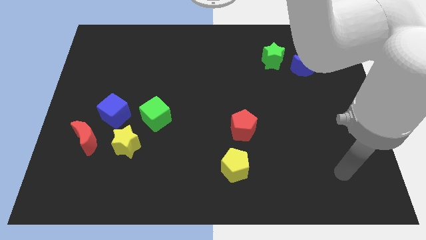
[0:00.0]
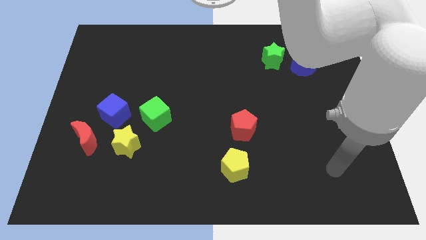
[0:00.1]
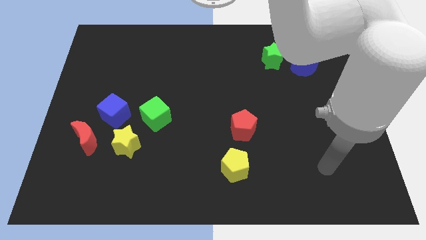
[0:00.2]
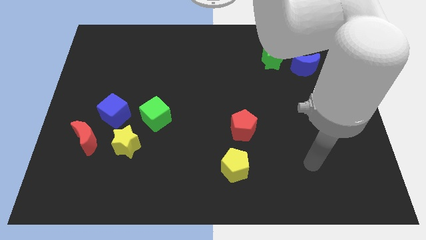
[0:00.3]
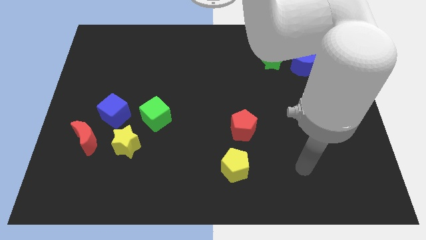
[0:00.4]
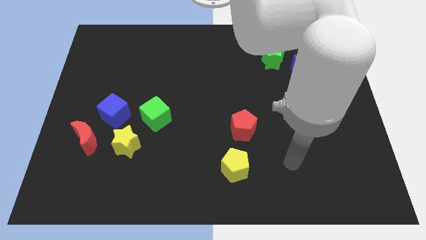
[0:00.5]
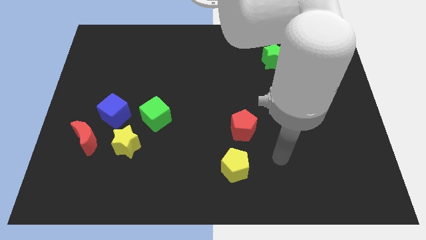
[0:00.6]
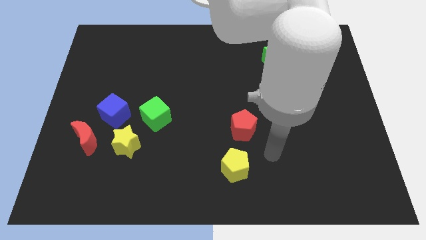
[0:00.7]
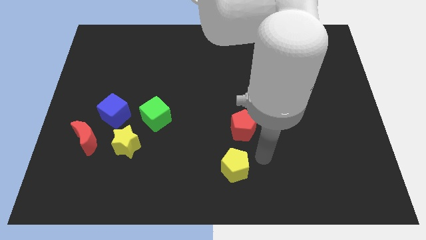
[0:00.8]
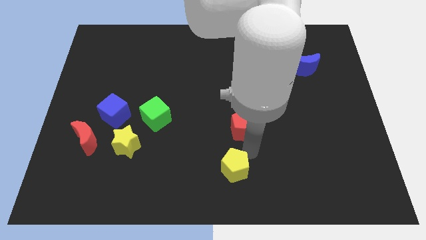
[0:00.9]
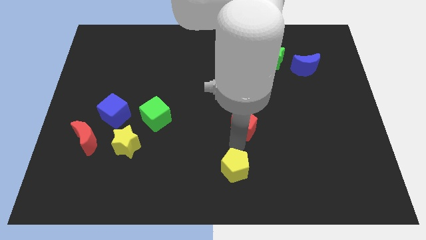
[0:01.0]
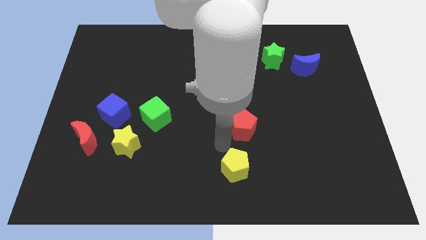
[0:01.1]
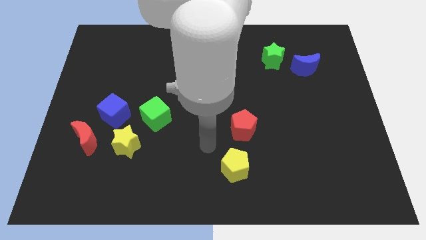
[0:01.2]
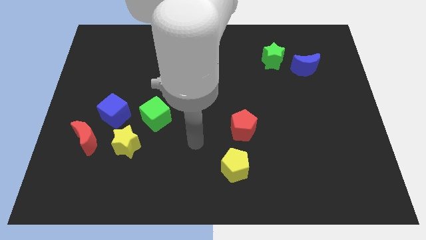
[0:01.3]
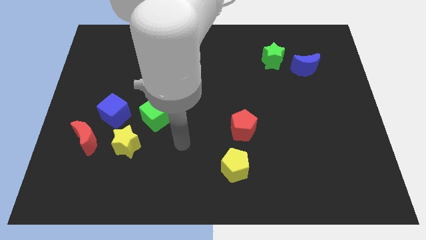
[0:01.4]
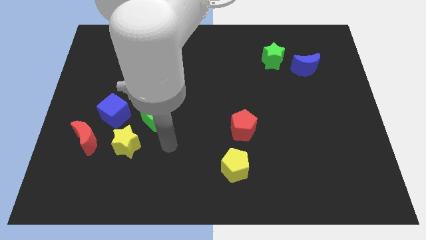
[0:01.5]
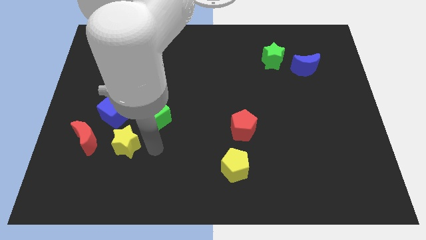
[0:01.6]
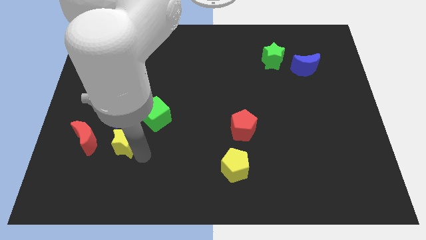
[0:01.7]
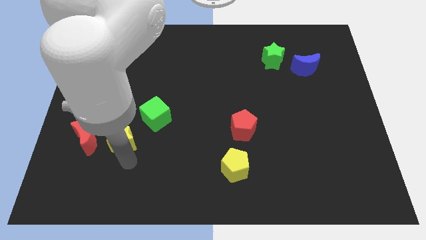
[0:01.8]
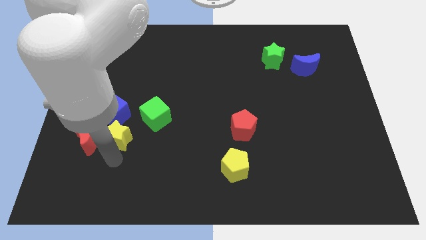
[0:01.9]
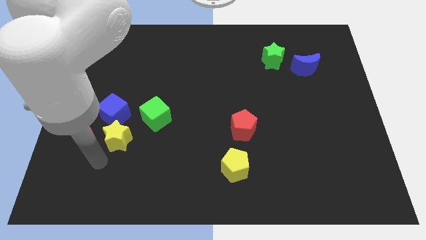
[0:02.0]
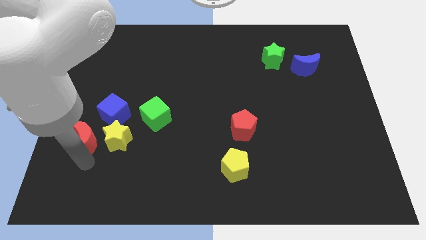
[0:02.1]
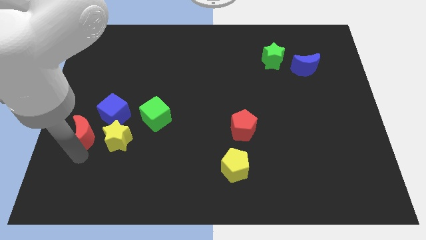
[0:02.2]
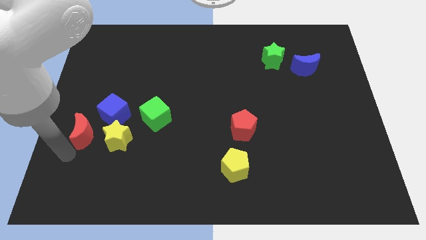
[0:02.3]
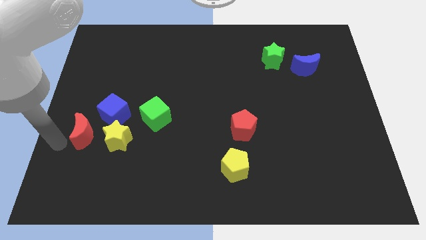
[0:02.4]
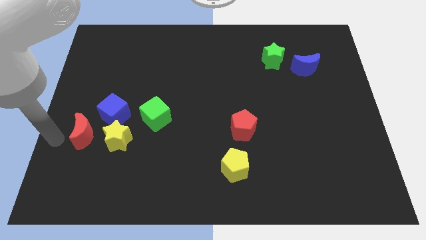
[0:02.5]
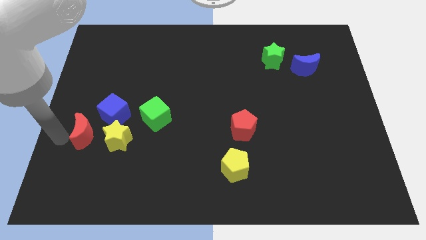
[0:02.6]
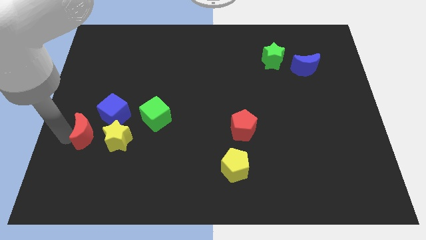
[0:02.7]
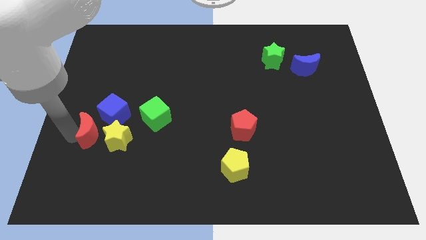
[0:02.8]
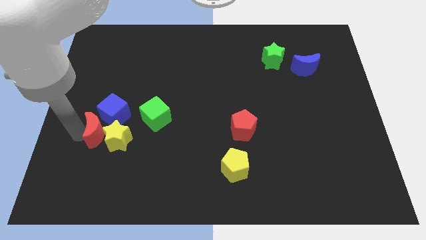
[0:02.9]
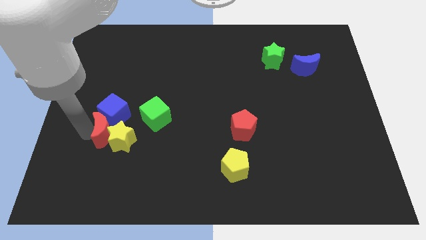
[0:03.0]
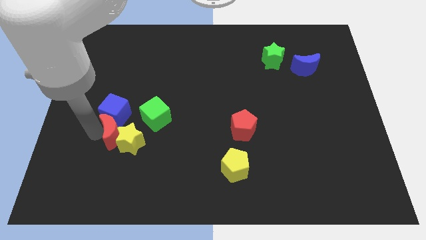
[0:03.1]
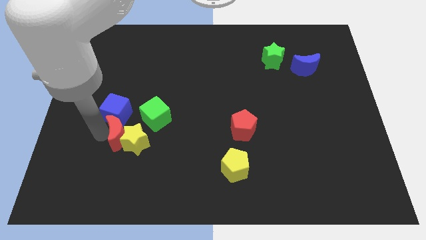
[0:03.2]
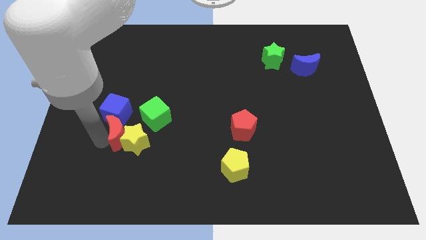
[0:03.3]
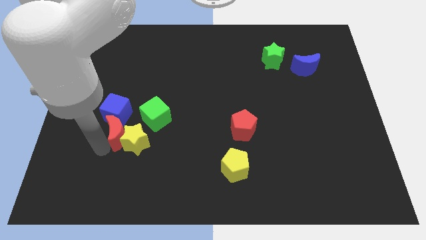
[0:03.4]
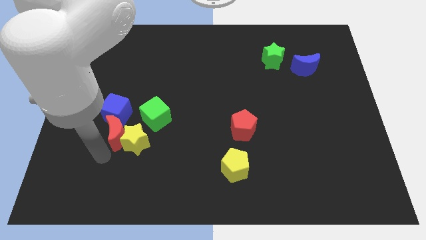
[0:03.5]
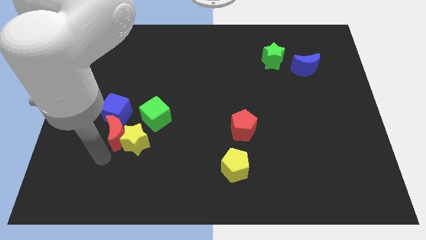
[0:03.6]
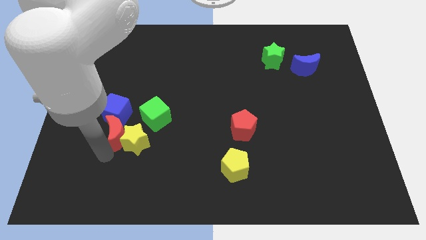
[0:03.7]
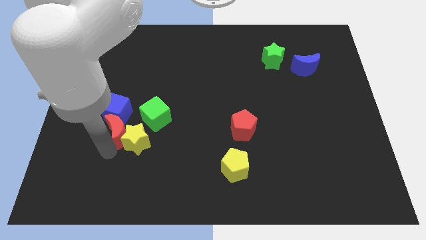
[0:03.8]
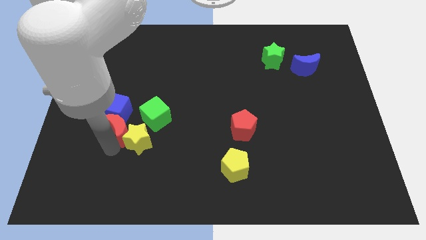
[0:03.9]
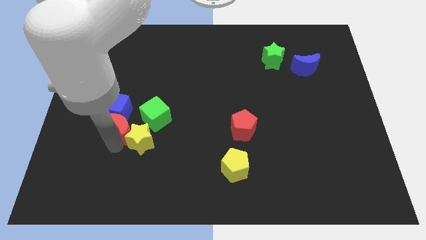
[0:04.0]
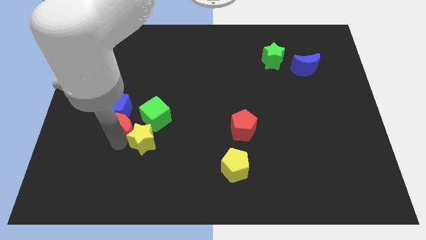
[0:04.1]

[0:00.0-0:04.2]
slide the red moon upwards and right diagonally a little bit

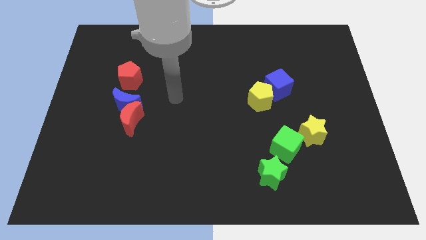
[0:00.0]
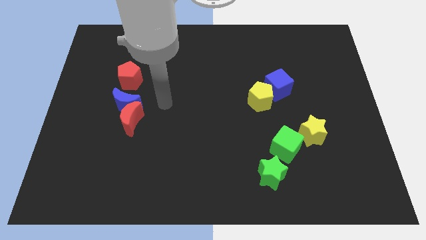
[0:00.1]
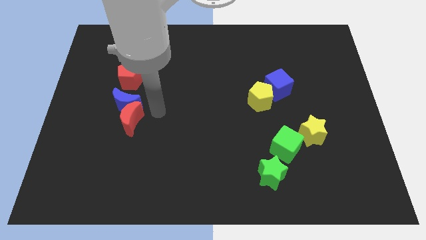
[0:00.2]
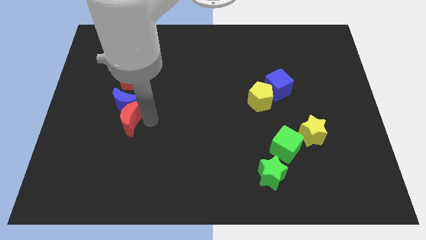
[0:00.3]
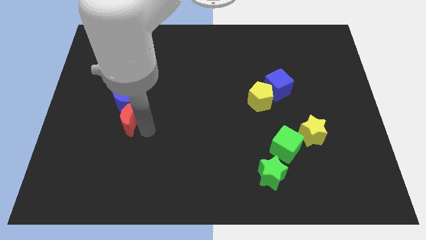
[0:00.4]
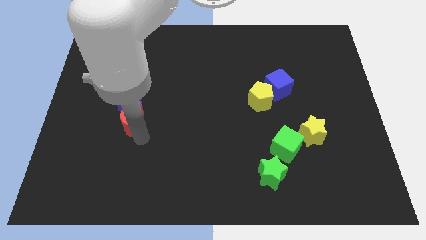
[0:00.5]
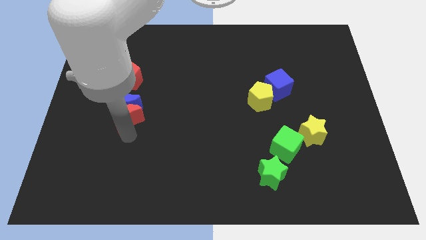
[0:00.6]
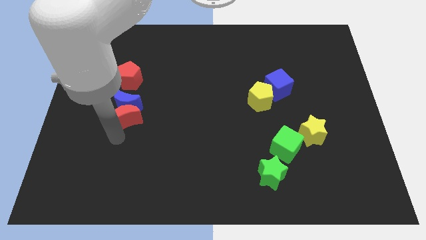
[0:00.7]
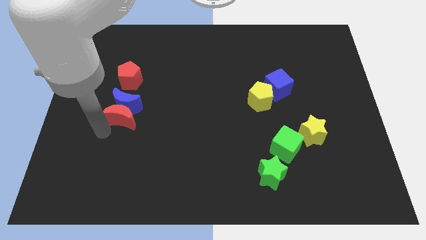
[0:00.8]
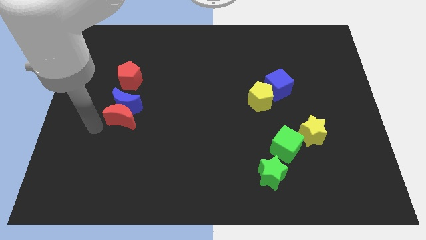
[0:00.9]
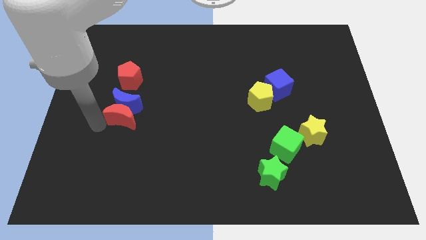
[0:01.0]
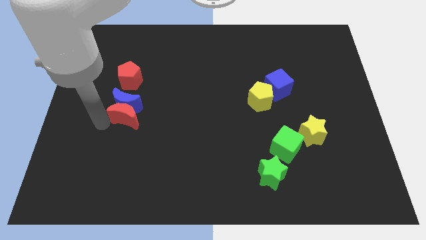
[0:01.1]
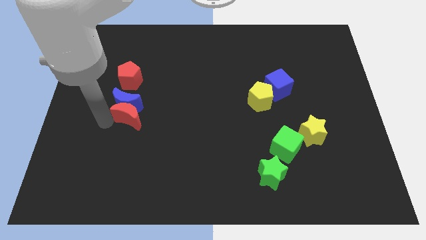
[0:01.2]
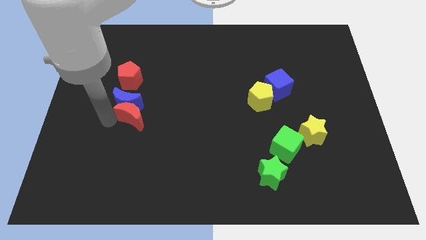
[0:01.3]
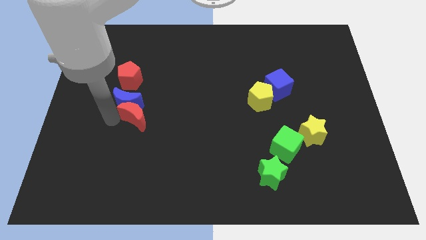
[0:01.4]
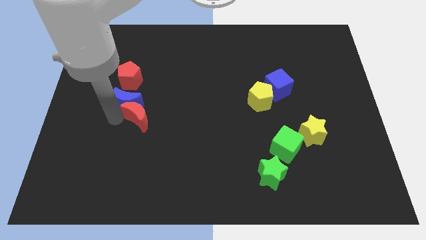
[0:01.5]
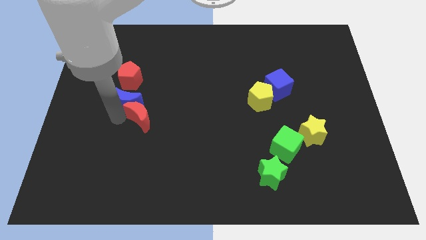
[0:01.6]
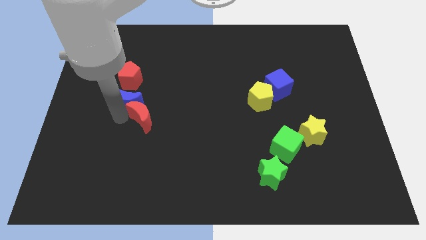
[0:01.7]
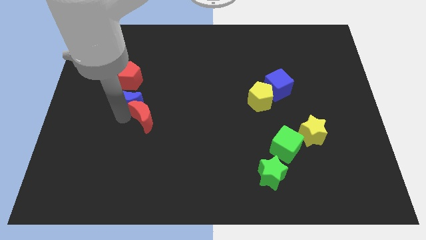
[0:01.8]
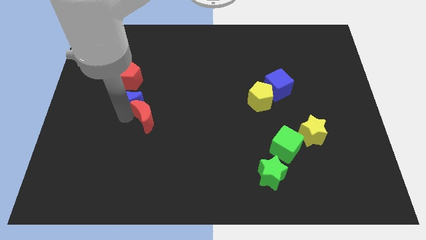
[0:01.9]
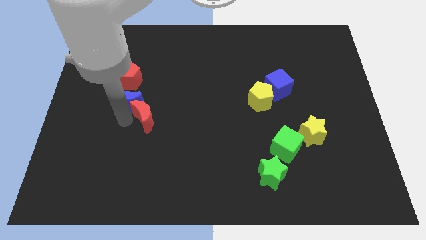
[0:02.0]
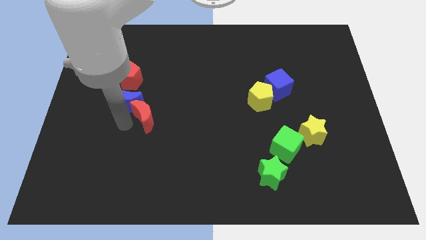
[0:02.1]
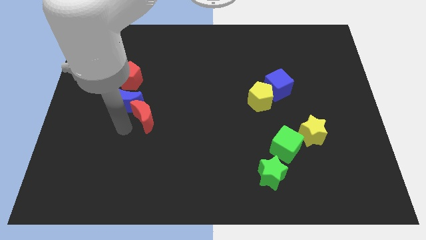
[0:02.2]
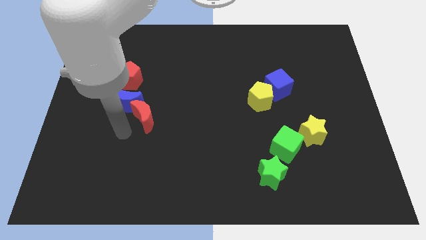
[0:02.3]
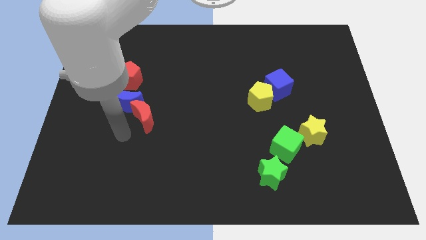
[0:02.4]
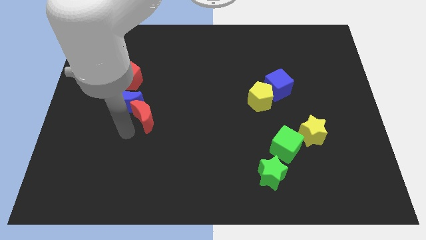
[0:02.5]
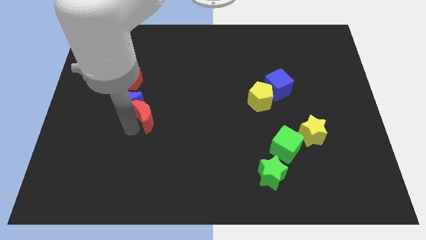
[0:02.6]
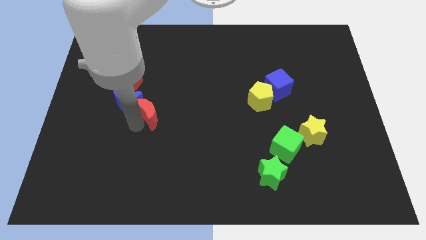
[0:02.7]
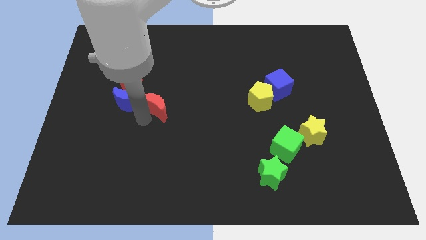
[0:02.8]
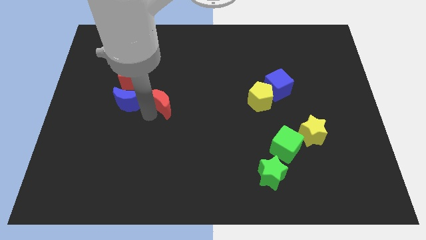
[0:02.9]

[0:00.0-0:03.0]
move the red moon a bit upwards and right

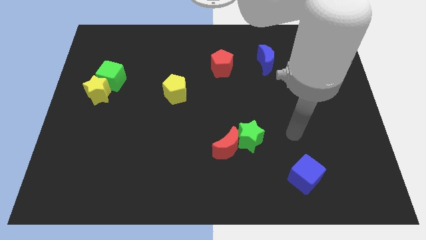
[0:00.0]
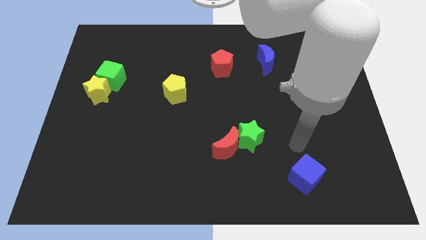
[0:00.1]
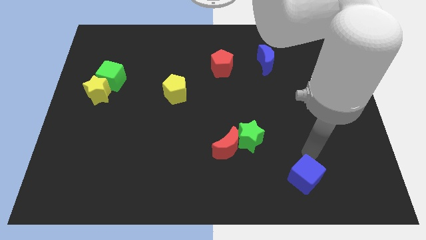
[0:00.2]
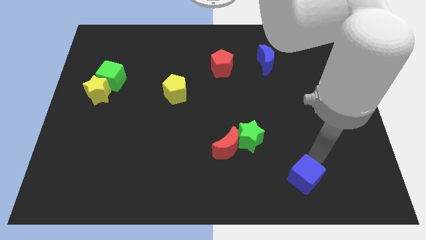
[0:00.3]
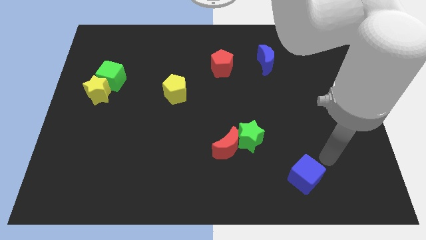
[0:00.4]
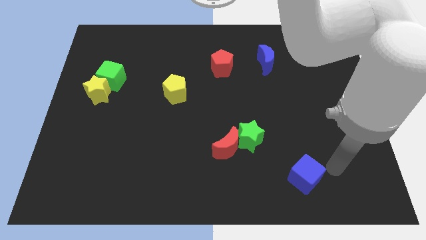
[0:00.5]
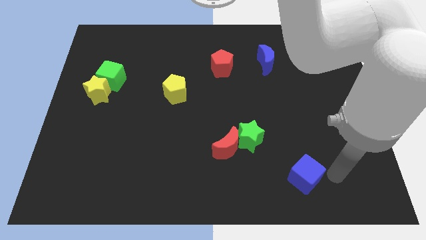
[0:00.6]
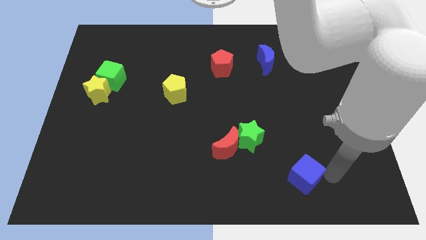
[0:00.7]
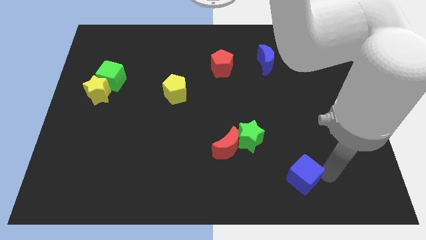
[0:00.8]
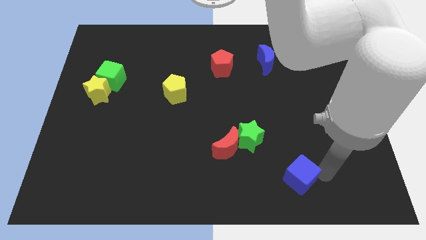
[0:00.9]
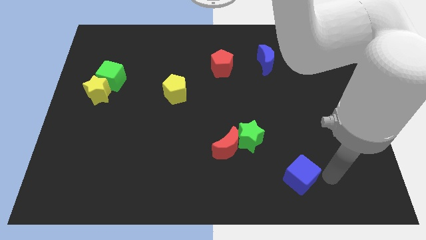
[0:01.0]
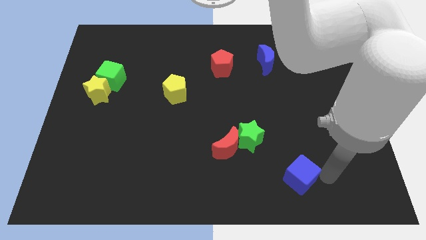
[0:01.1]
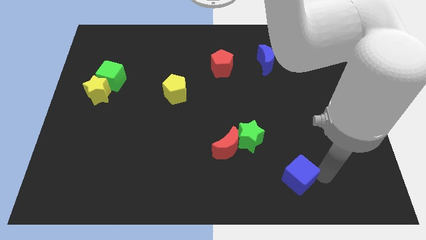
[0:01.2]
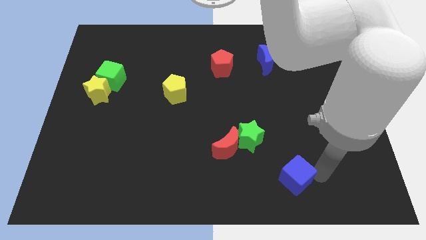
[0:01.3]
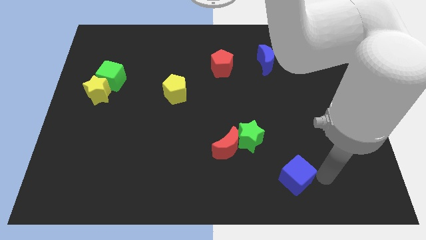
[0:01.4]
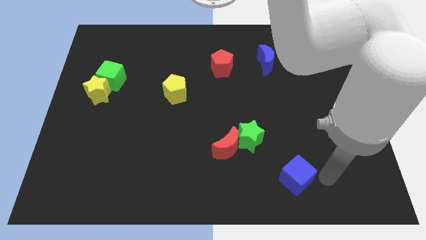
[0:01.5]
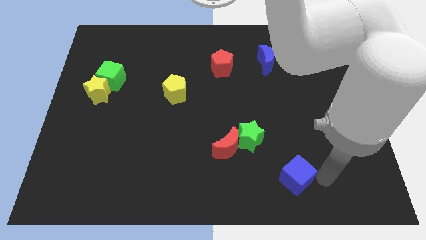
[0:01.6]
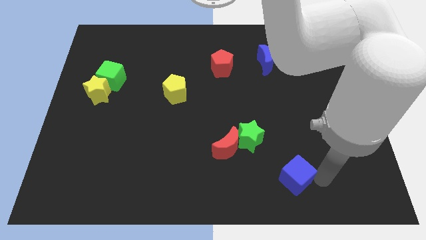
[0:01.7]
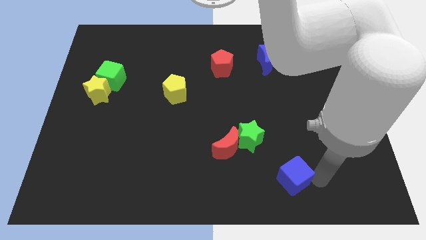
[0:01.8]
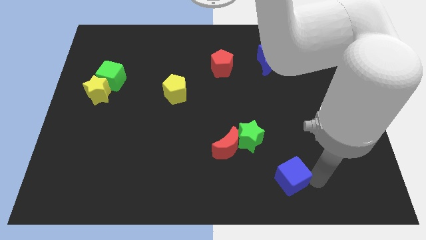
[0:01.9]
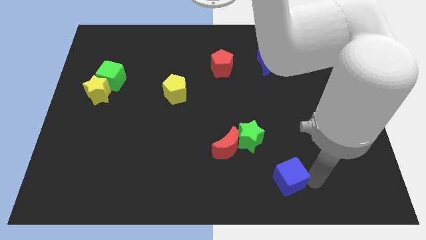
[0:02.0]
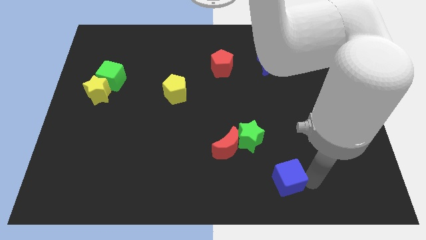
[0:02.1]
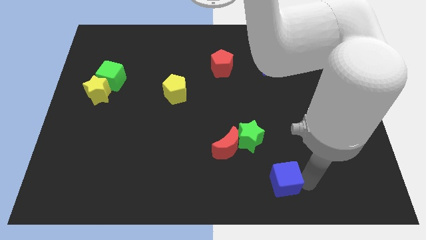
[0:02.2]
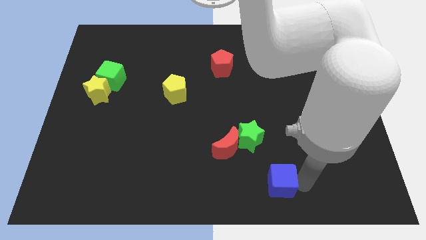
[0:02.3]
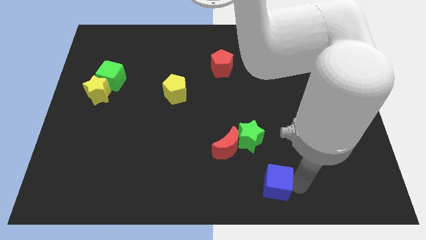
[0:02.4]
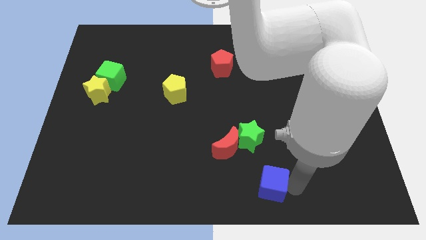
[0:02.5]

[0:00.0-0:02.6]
slightly push the blue cube to the left
